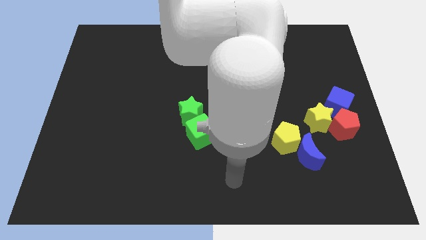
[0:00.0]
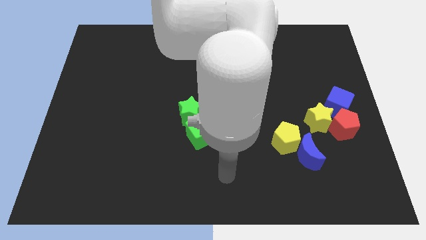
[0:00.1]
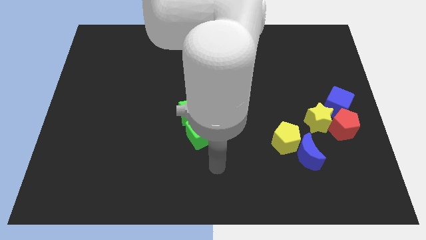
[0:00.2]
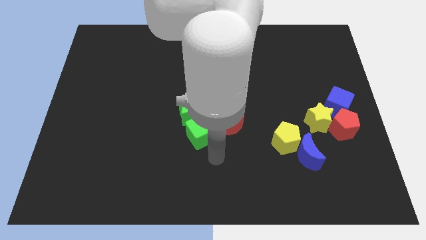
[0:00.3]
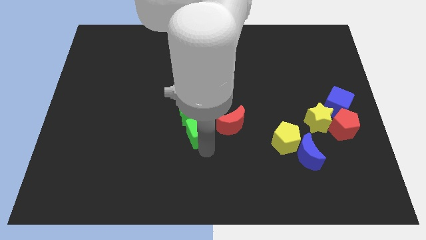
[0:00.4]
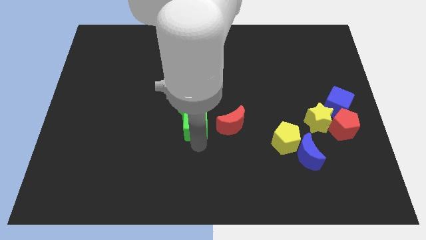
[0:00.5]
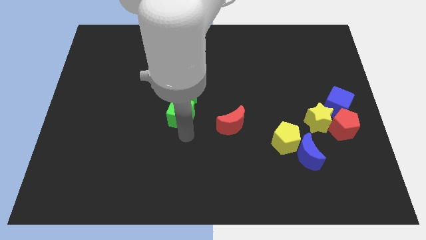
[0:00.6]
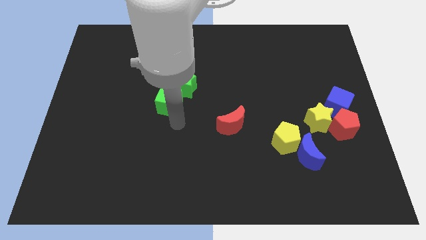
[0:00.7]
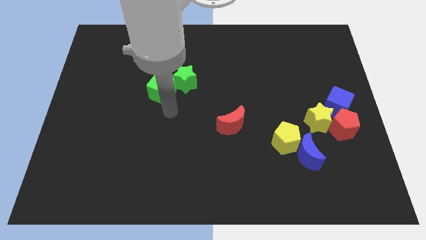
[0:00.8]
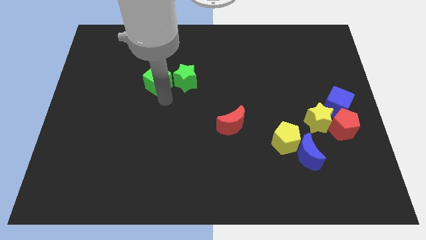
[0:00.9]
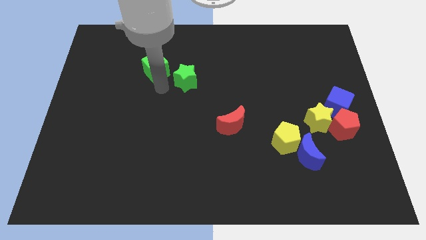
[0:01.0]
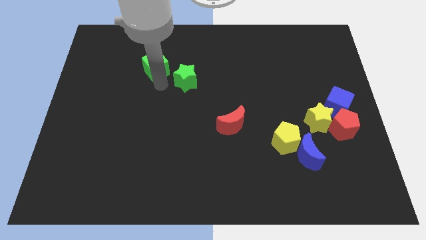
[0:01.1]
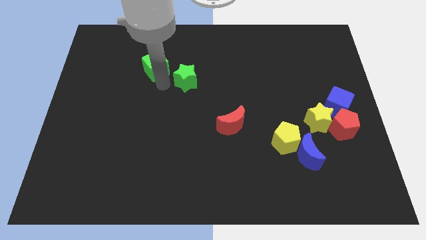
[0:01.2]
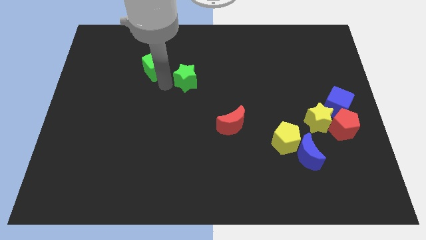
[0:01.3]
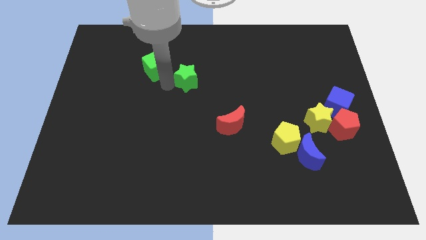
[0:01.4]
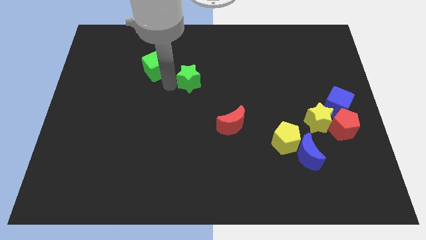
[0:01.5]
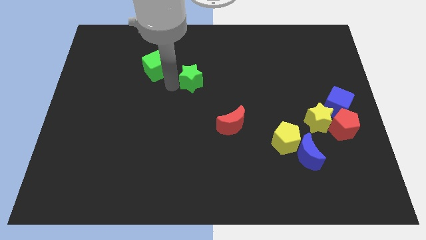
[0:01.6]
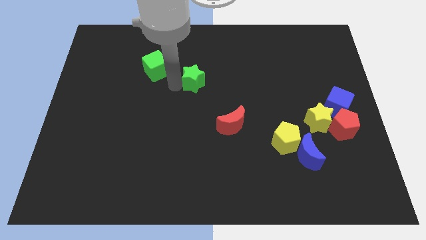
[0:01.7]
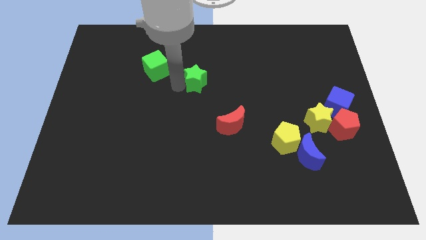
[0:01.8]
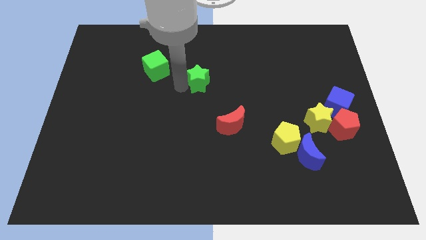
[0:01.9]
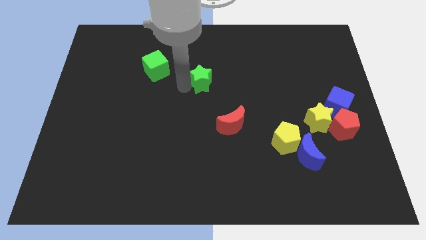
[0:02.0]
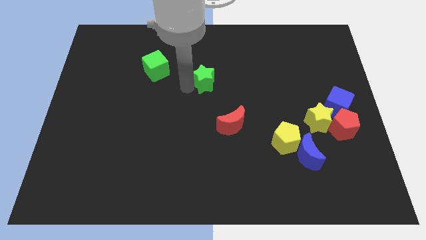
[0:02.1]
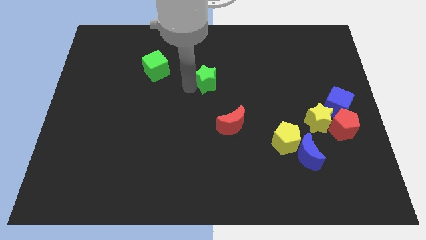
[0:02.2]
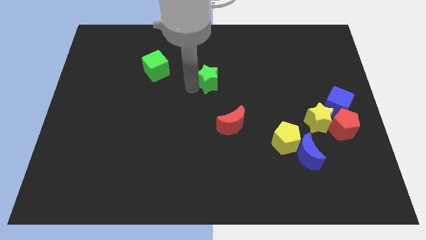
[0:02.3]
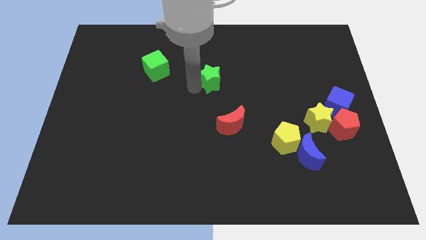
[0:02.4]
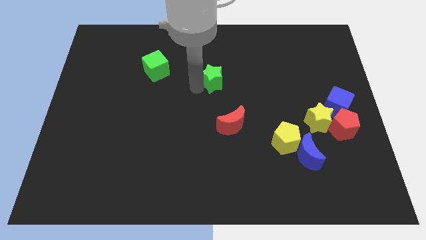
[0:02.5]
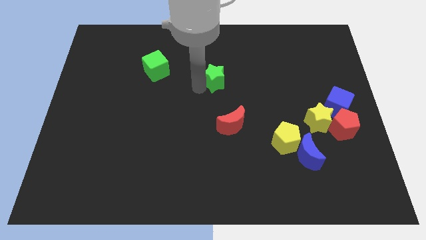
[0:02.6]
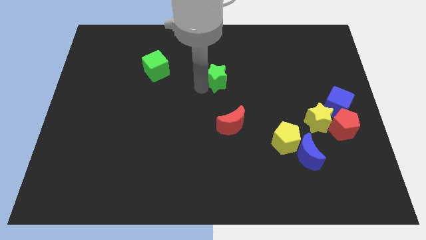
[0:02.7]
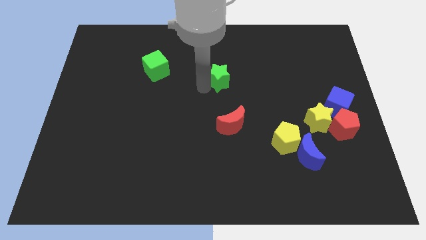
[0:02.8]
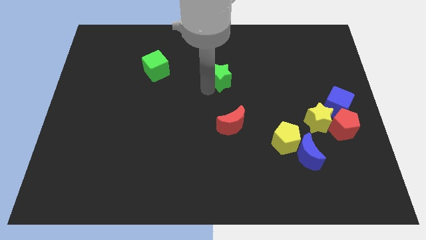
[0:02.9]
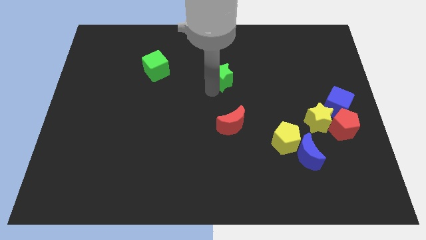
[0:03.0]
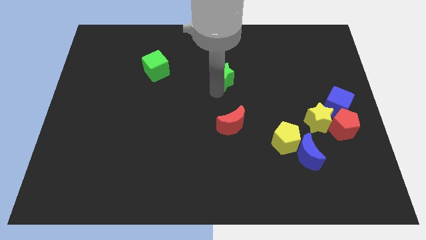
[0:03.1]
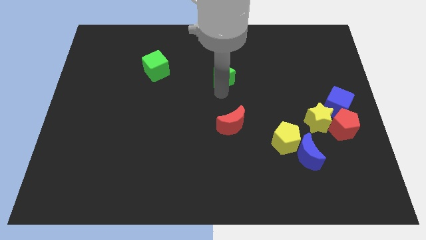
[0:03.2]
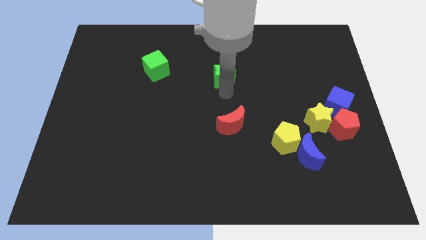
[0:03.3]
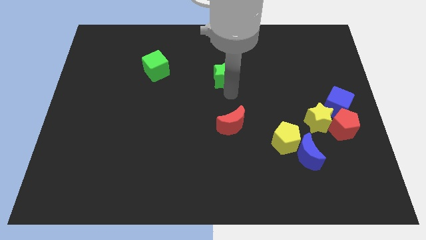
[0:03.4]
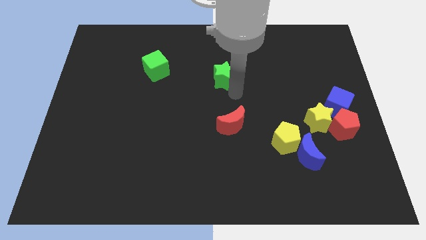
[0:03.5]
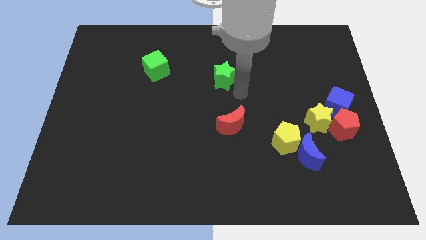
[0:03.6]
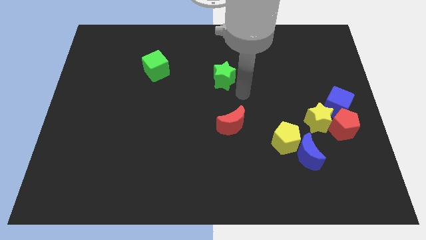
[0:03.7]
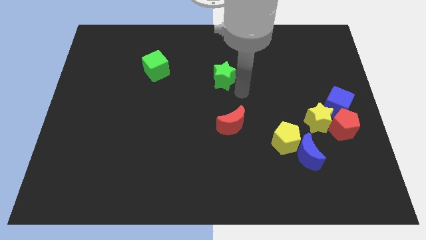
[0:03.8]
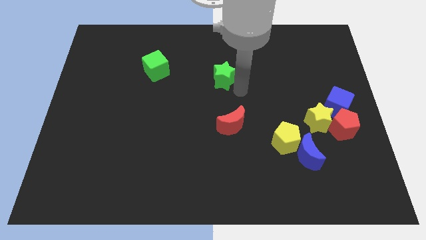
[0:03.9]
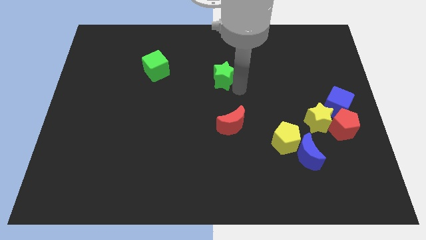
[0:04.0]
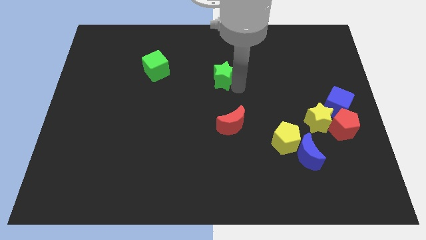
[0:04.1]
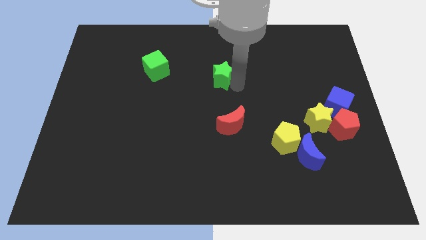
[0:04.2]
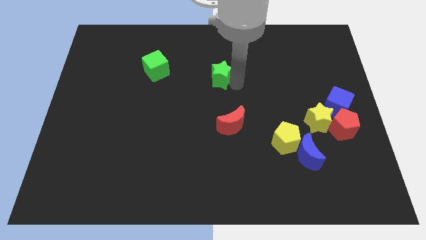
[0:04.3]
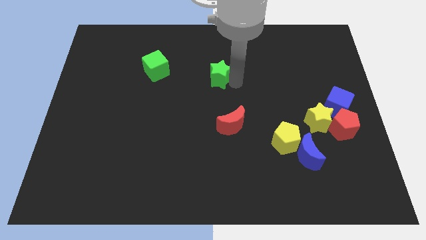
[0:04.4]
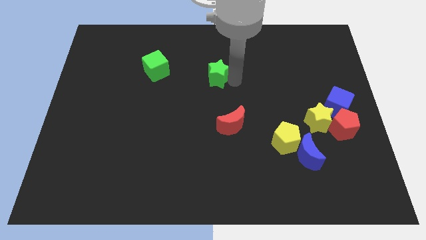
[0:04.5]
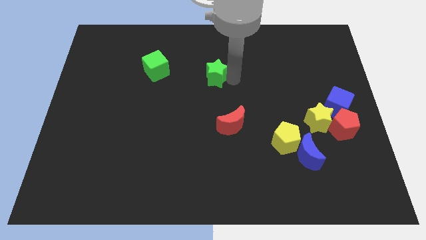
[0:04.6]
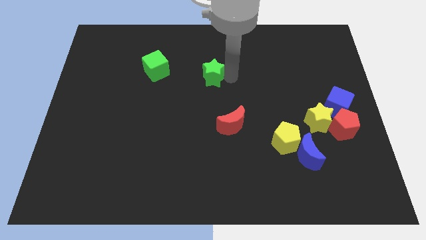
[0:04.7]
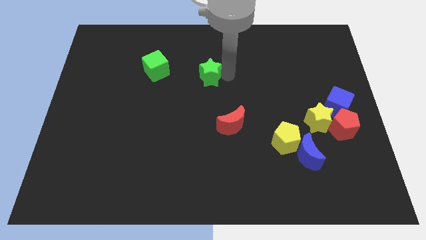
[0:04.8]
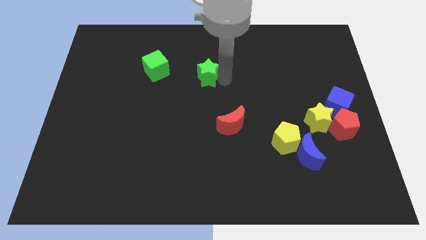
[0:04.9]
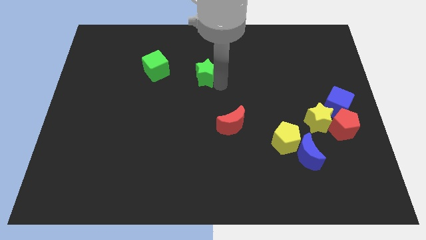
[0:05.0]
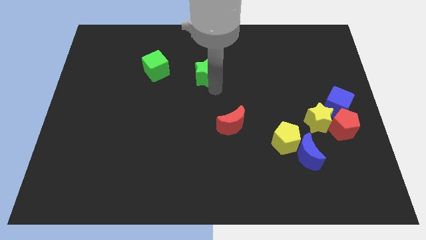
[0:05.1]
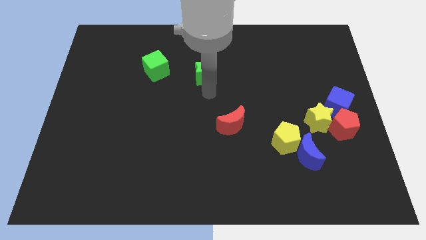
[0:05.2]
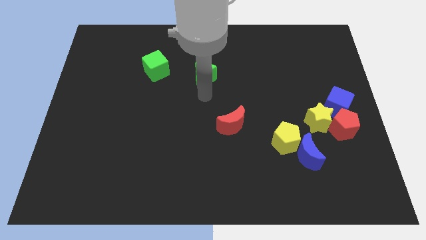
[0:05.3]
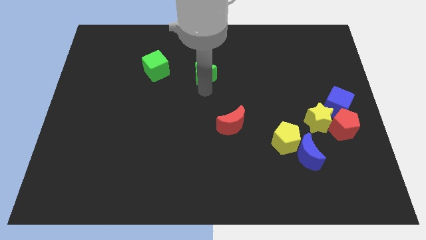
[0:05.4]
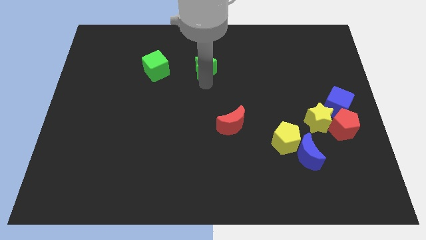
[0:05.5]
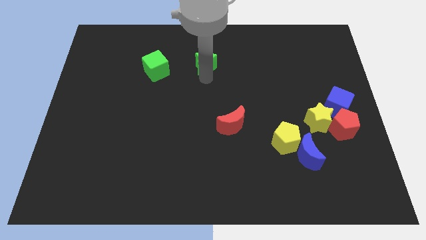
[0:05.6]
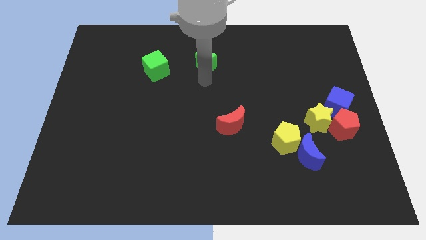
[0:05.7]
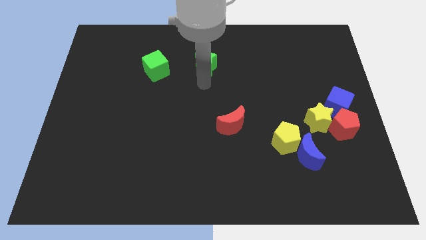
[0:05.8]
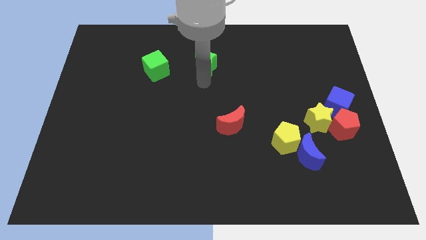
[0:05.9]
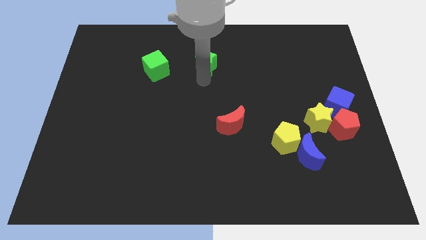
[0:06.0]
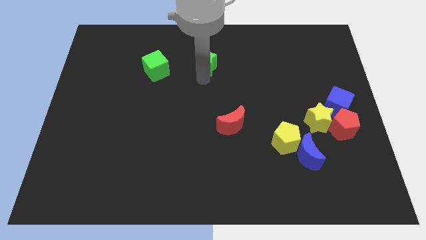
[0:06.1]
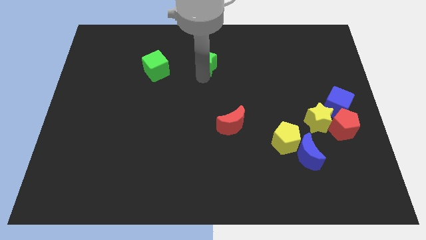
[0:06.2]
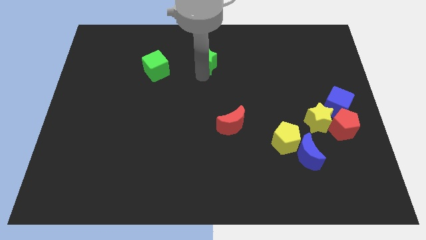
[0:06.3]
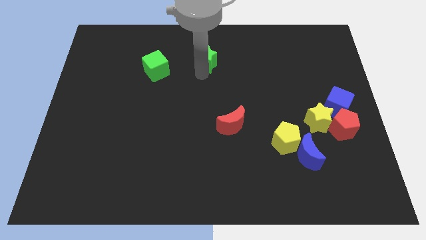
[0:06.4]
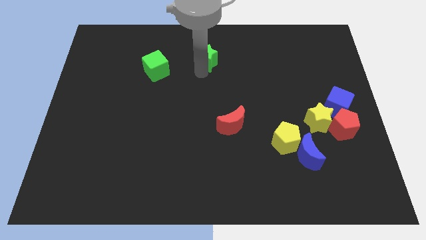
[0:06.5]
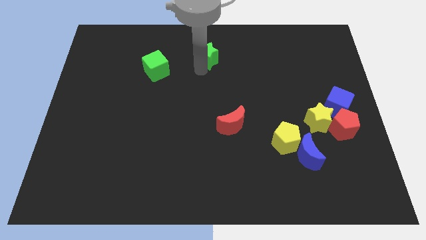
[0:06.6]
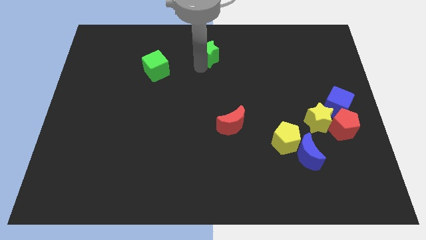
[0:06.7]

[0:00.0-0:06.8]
put the green star to the towards your base

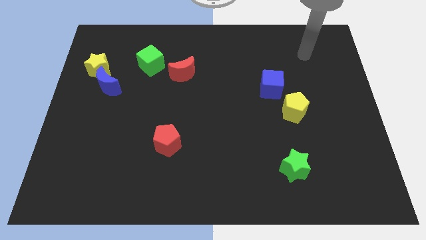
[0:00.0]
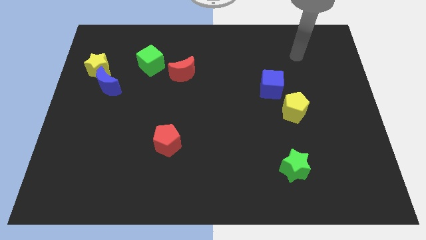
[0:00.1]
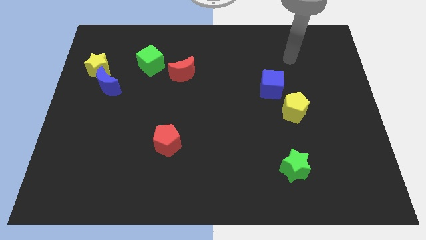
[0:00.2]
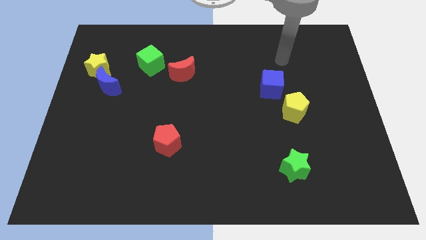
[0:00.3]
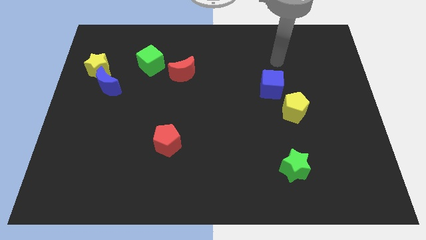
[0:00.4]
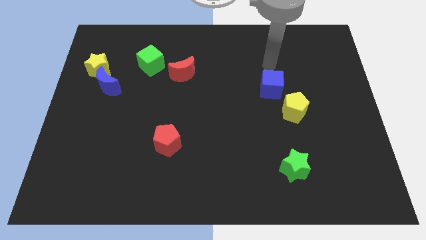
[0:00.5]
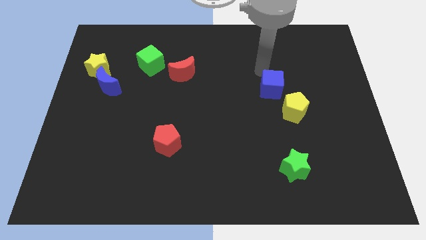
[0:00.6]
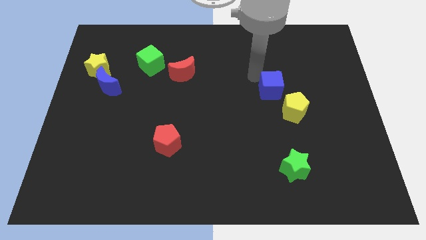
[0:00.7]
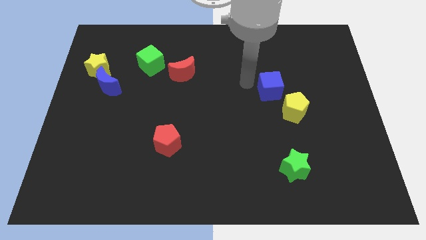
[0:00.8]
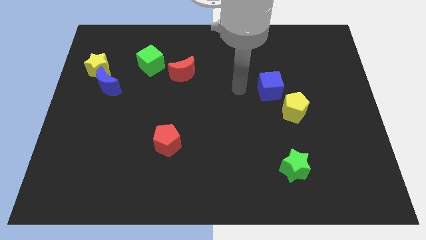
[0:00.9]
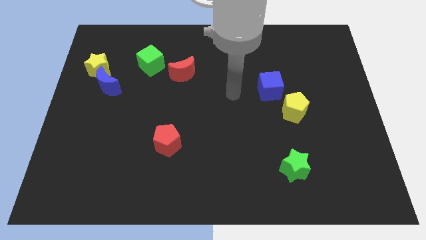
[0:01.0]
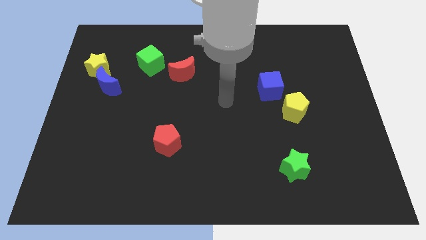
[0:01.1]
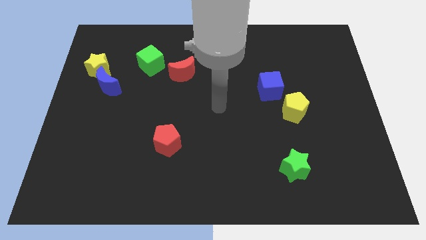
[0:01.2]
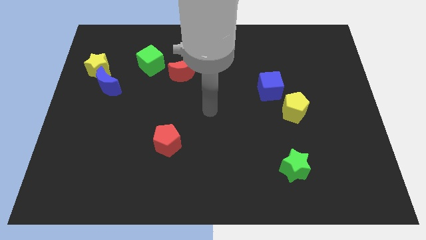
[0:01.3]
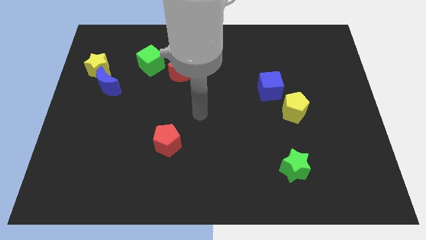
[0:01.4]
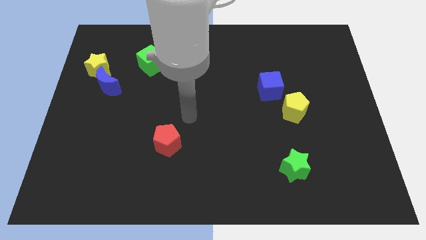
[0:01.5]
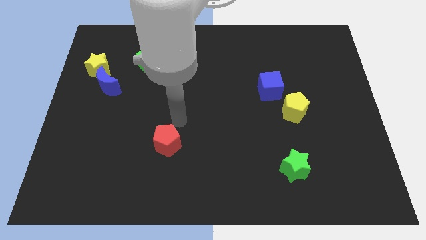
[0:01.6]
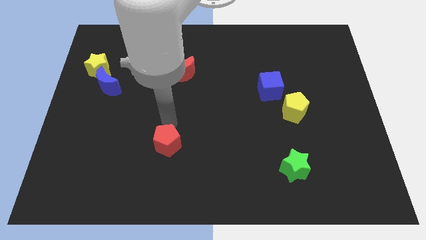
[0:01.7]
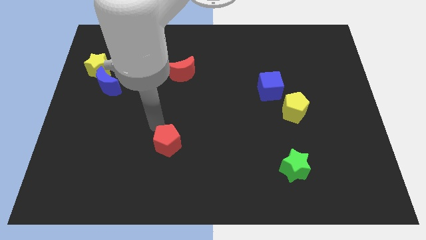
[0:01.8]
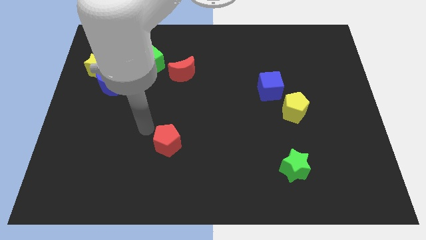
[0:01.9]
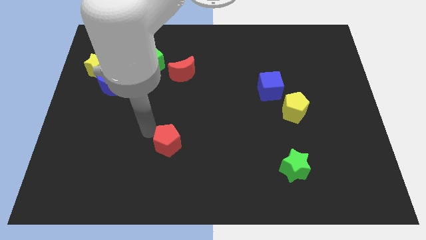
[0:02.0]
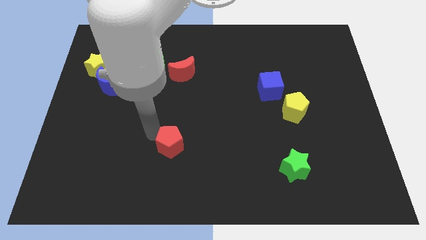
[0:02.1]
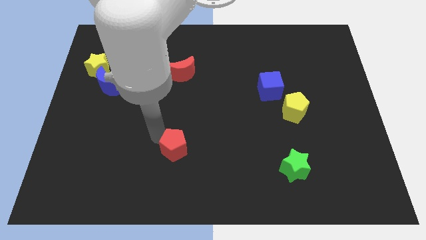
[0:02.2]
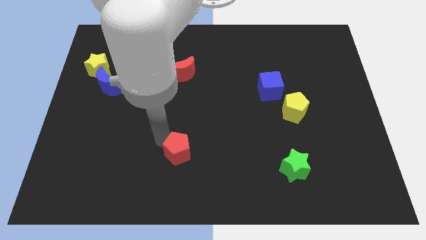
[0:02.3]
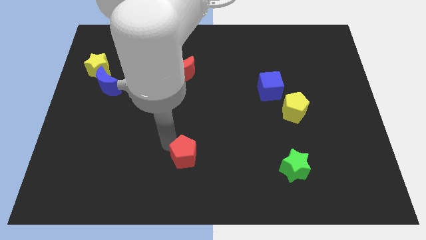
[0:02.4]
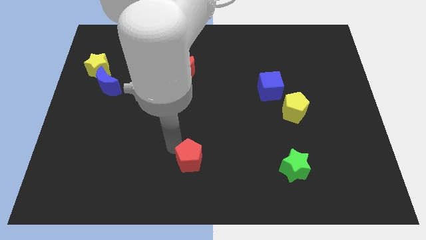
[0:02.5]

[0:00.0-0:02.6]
move the red pentagon to the bottom
